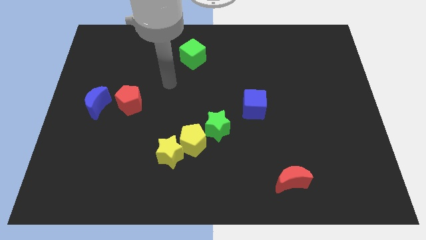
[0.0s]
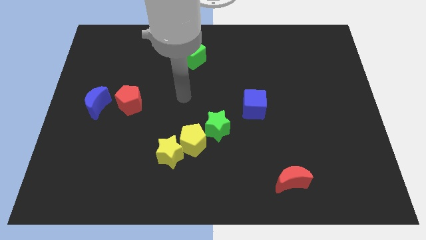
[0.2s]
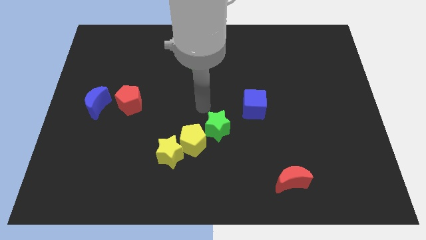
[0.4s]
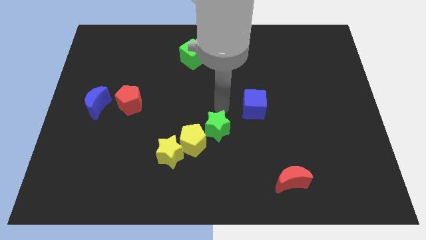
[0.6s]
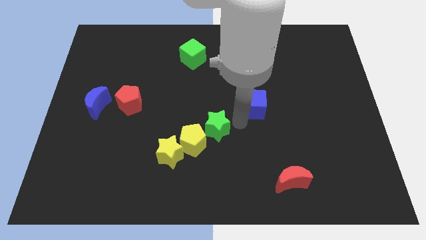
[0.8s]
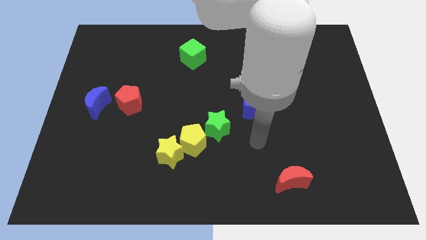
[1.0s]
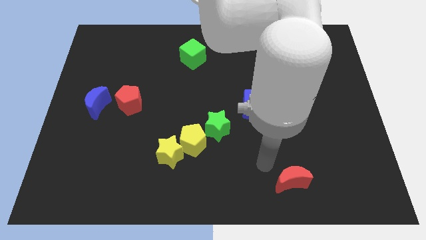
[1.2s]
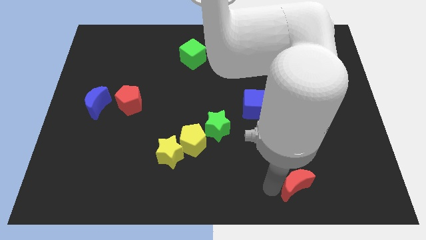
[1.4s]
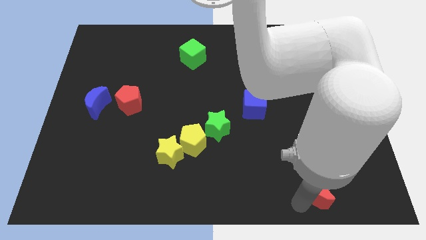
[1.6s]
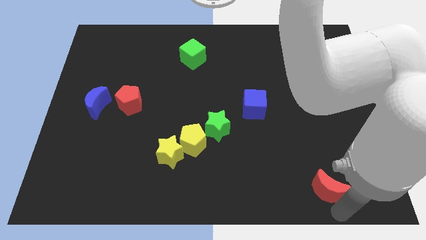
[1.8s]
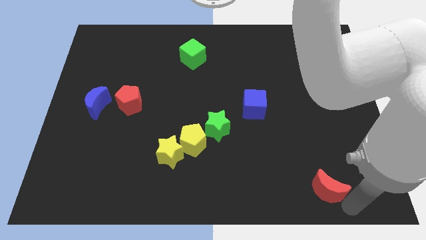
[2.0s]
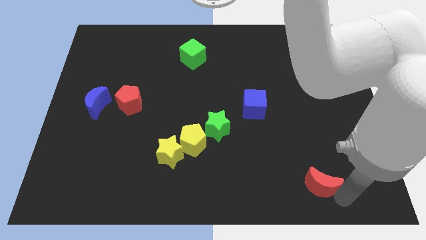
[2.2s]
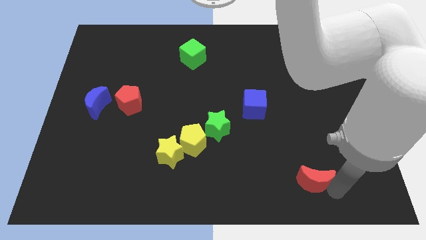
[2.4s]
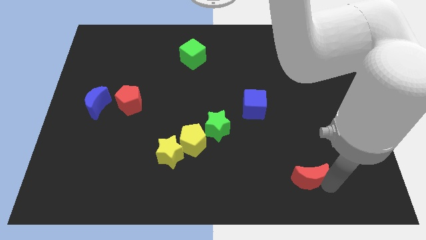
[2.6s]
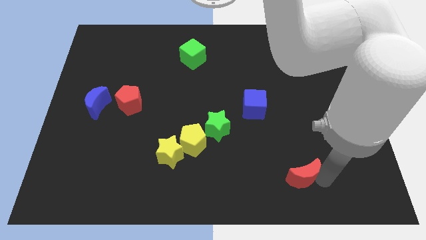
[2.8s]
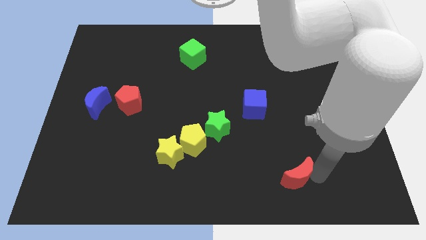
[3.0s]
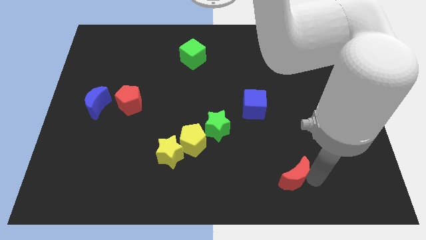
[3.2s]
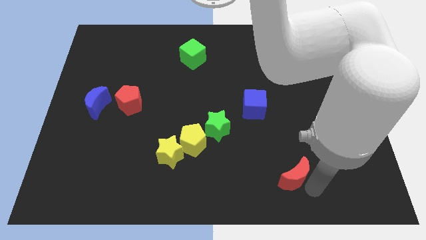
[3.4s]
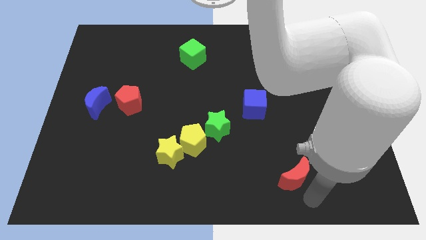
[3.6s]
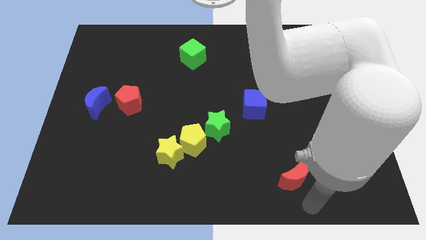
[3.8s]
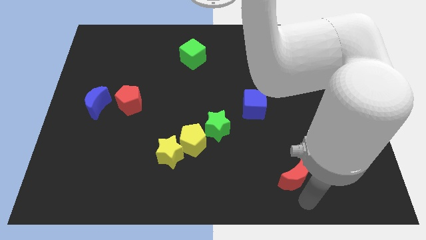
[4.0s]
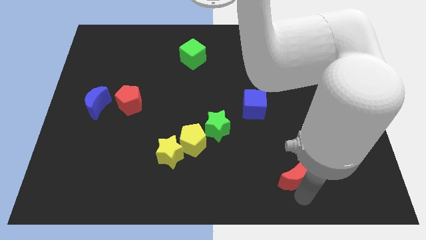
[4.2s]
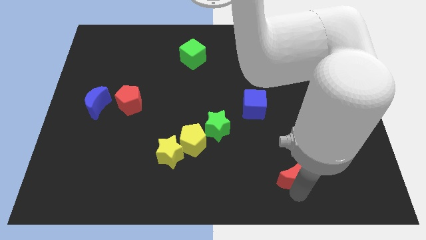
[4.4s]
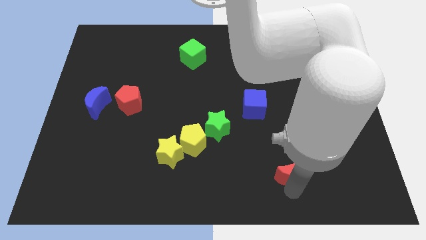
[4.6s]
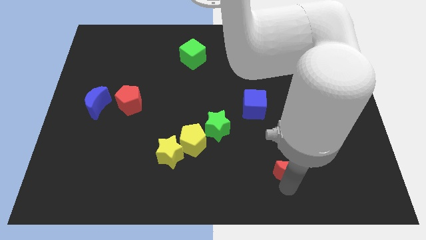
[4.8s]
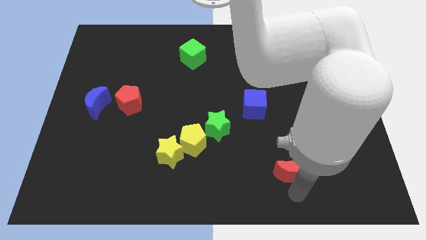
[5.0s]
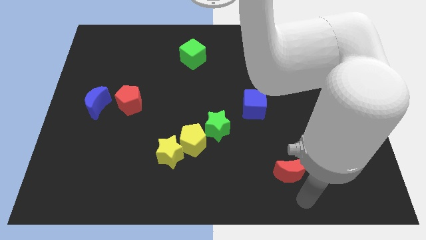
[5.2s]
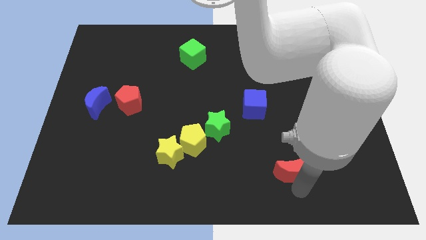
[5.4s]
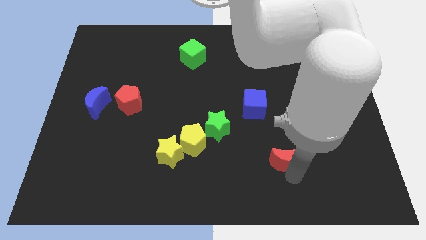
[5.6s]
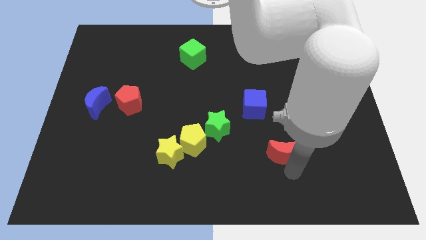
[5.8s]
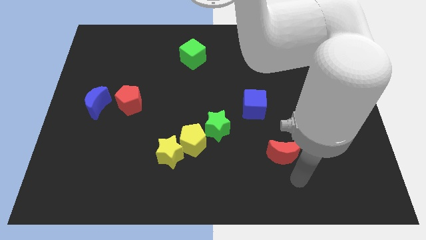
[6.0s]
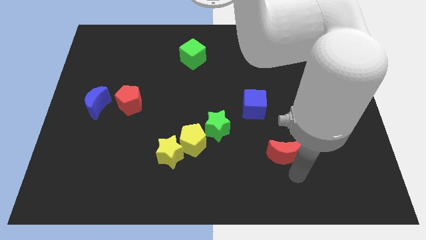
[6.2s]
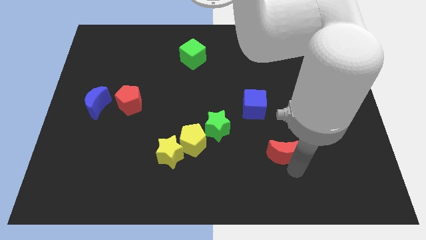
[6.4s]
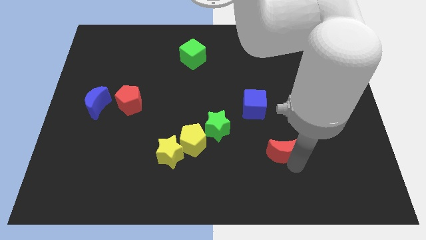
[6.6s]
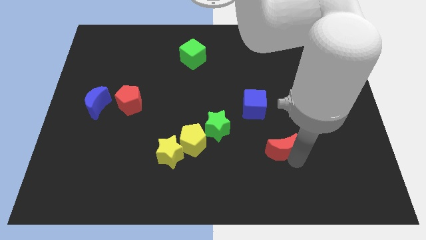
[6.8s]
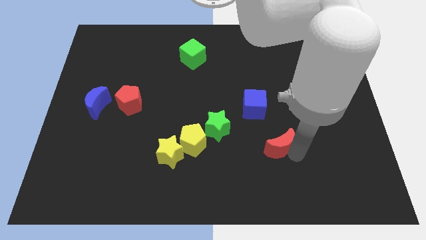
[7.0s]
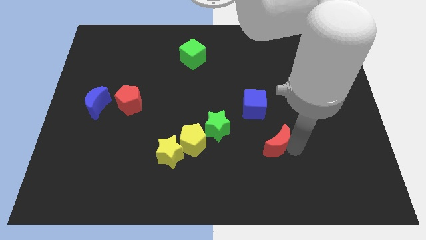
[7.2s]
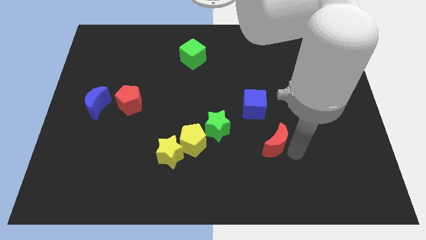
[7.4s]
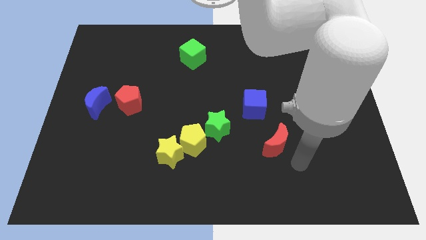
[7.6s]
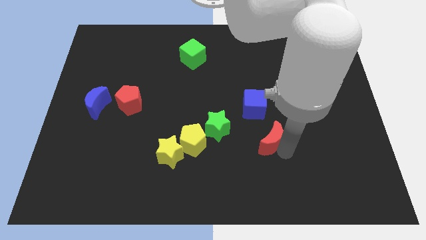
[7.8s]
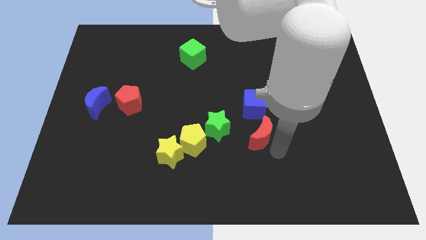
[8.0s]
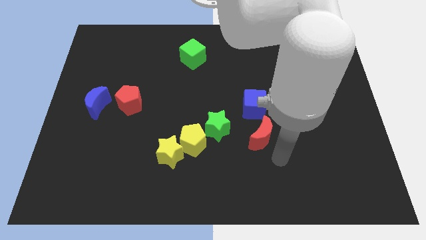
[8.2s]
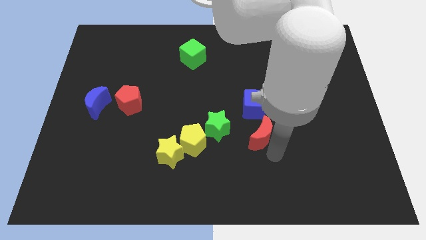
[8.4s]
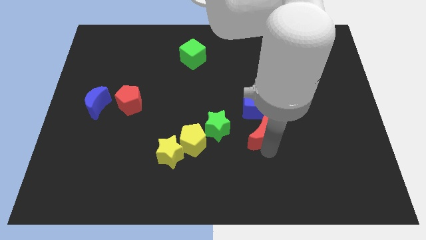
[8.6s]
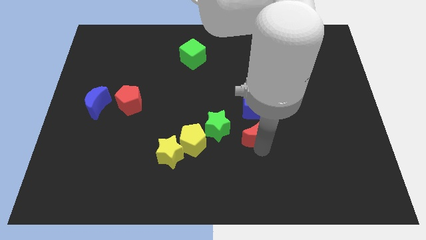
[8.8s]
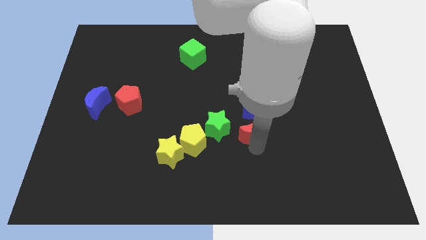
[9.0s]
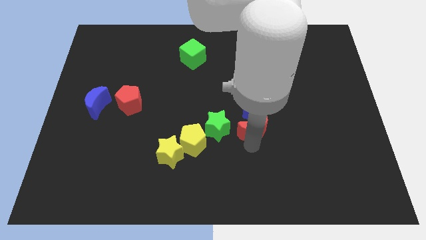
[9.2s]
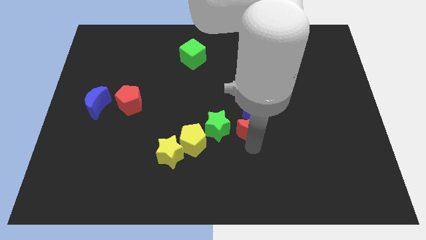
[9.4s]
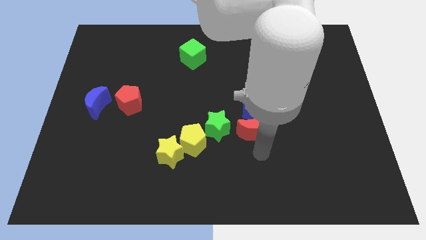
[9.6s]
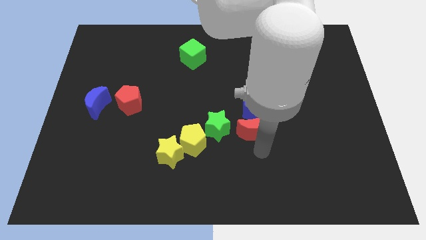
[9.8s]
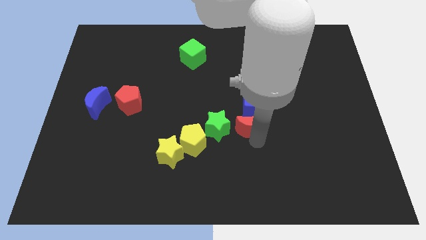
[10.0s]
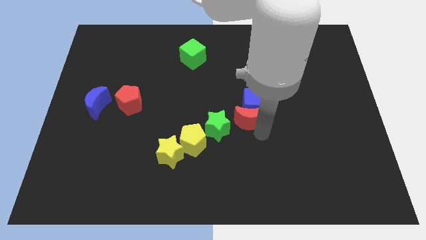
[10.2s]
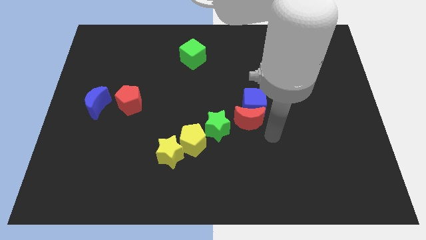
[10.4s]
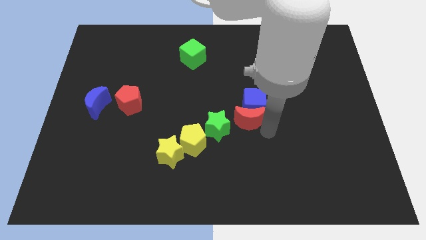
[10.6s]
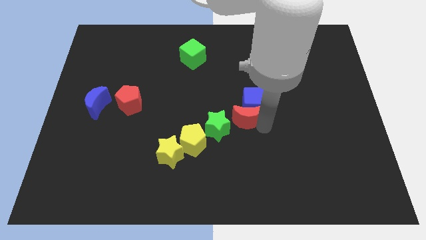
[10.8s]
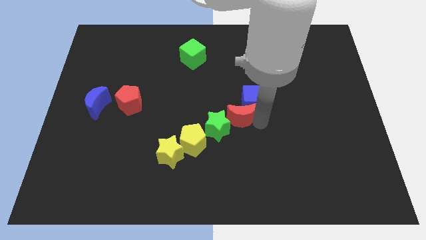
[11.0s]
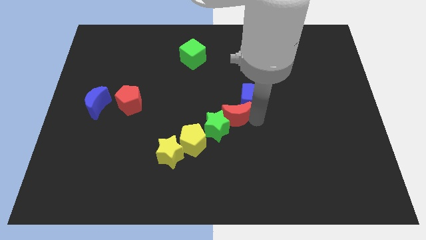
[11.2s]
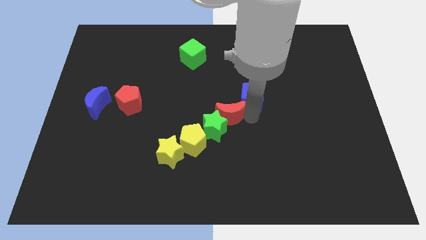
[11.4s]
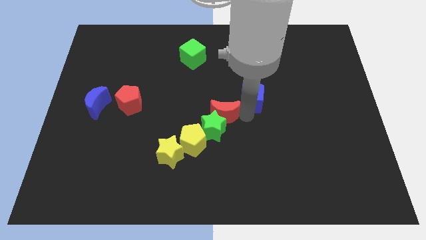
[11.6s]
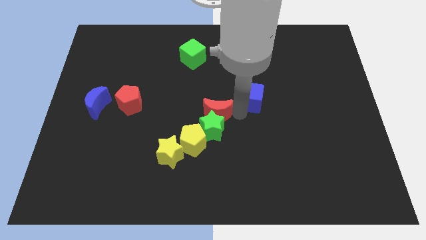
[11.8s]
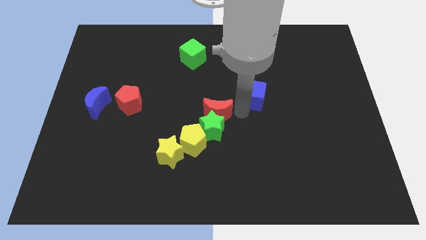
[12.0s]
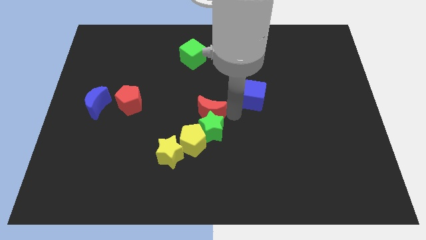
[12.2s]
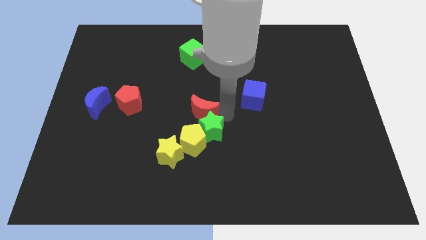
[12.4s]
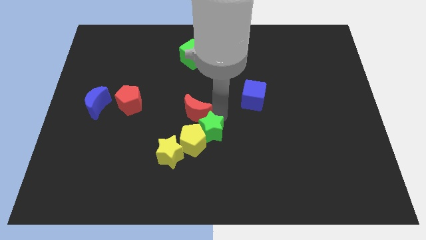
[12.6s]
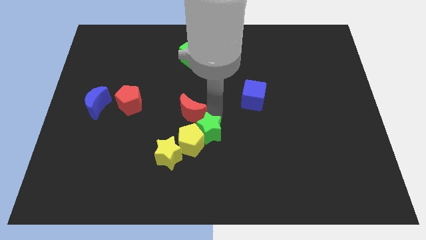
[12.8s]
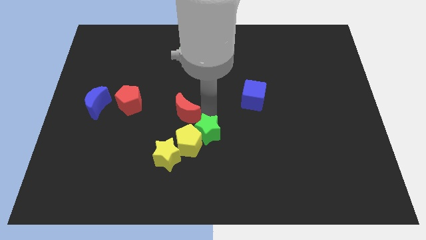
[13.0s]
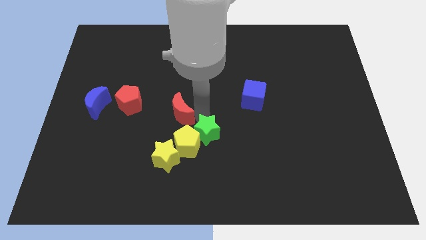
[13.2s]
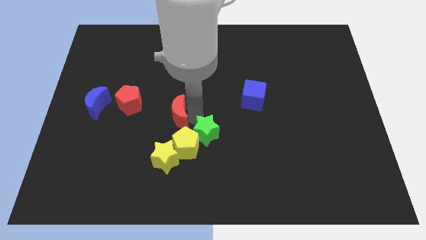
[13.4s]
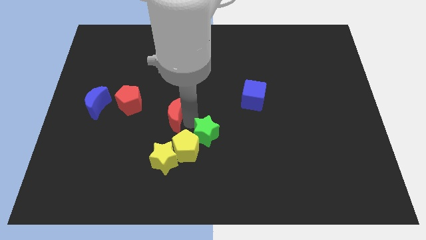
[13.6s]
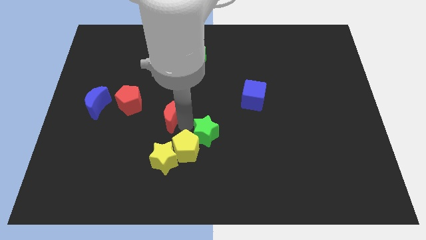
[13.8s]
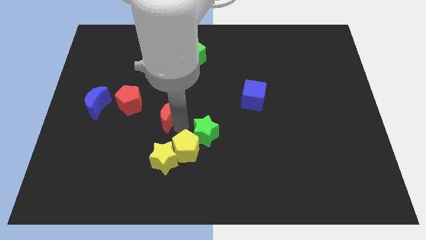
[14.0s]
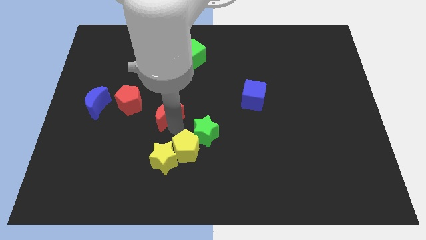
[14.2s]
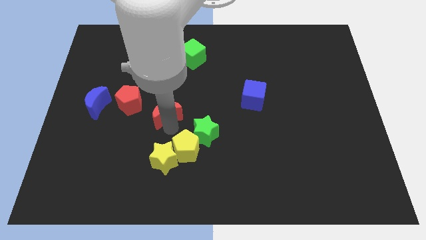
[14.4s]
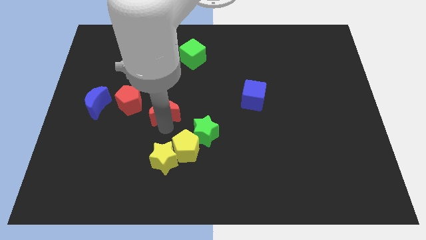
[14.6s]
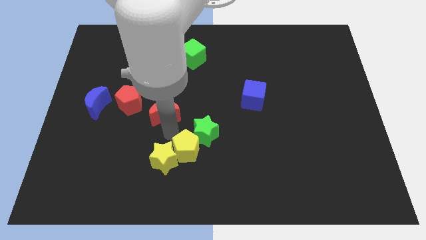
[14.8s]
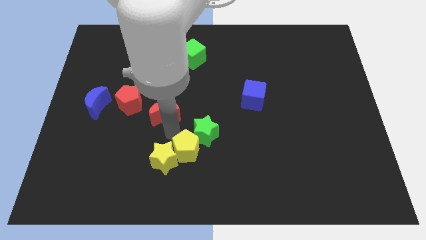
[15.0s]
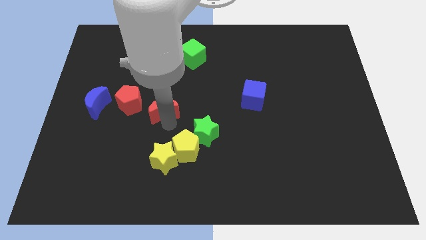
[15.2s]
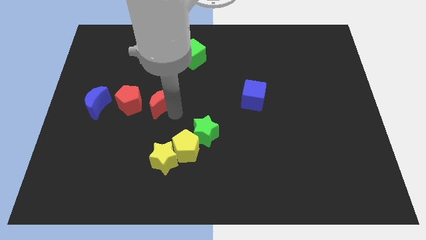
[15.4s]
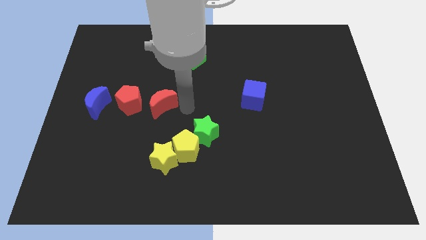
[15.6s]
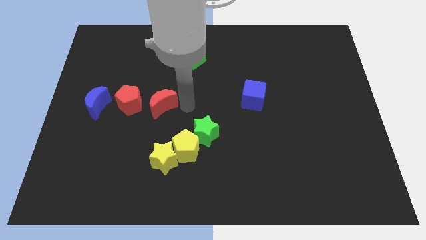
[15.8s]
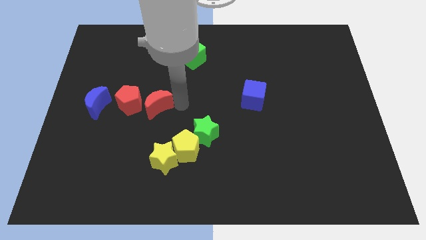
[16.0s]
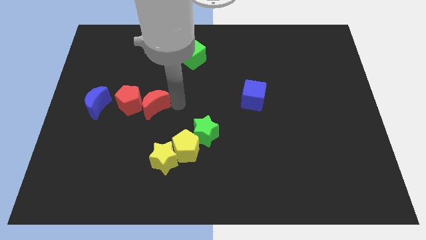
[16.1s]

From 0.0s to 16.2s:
put the red moon towards the red pentagon
